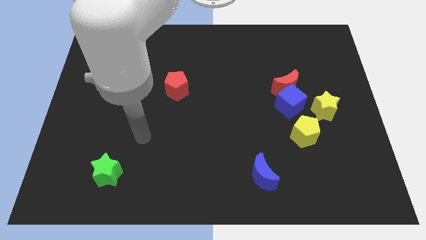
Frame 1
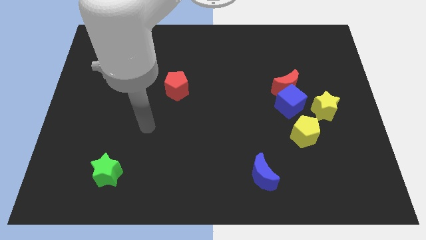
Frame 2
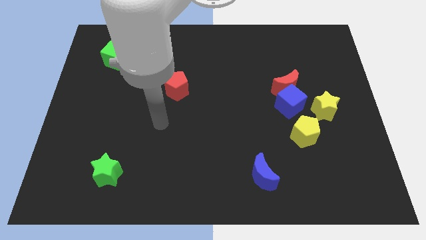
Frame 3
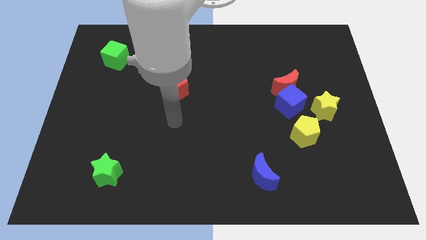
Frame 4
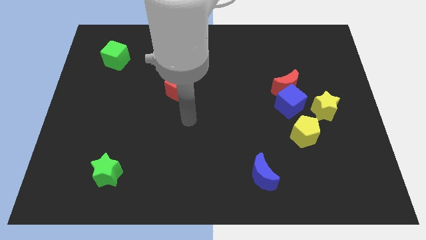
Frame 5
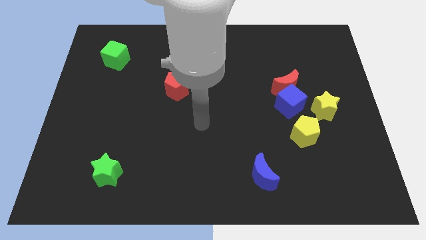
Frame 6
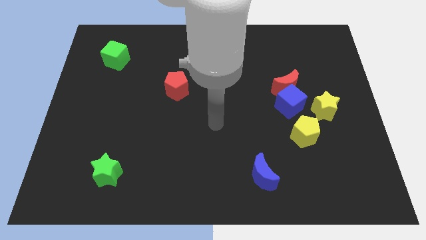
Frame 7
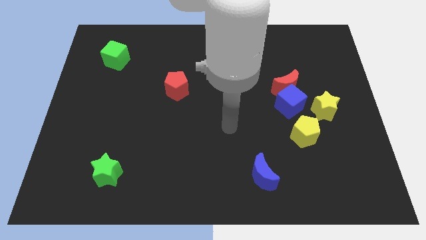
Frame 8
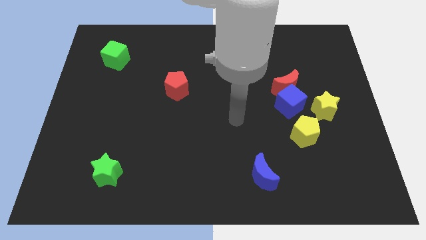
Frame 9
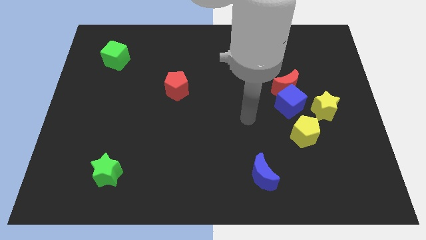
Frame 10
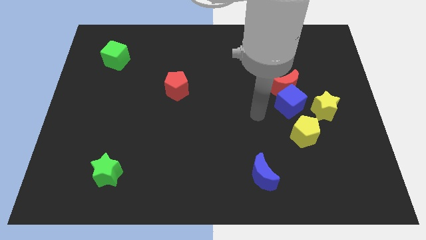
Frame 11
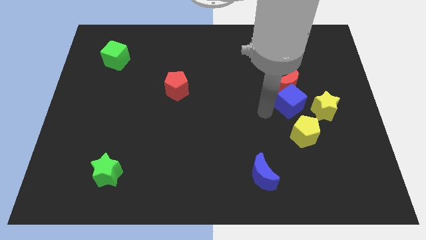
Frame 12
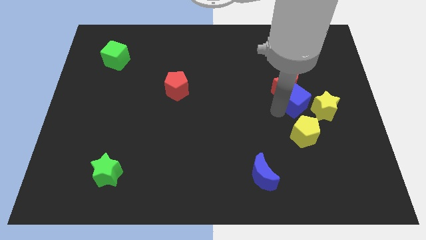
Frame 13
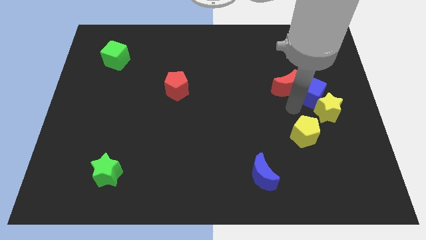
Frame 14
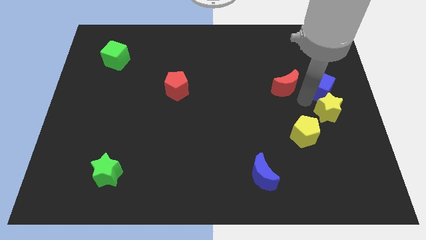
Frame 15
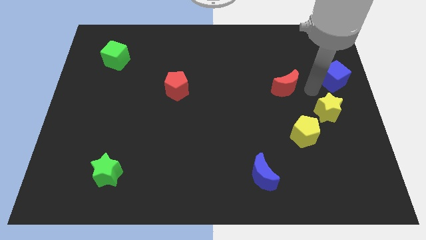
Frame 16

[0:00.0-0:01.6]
move the red moon away from the blue cube

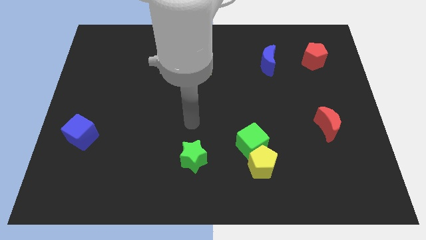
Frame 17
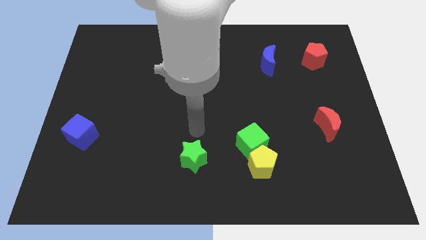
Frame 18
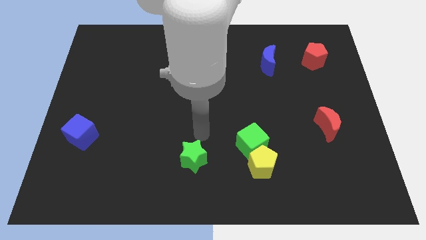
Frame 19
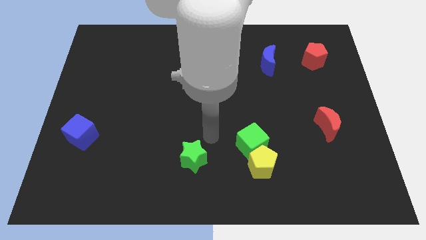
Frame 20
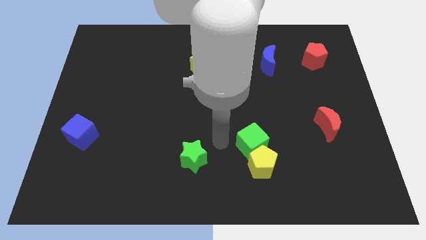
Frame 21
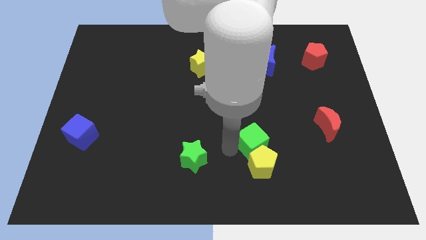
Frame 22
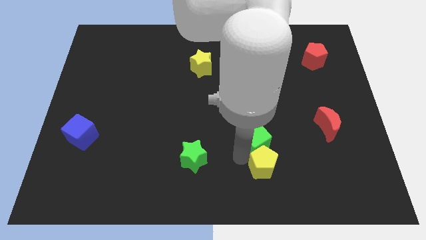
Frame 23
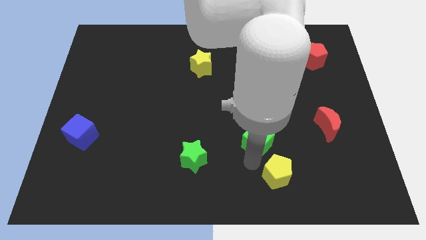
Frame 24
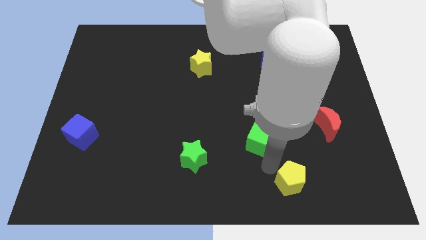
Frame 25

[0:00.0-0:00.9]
move the green cube away from the yellow pentagon

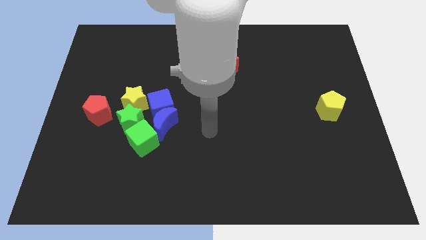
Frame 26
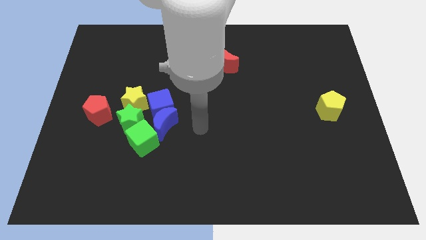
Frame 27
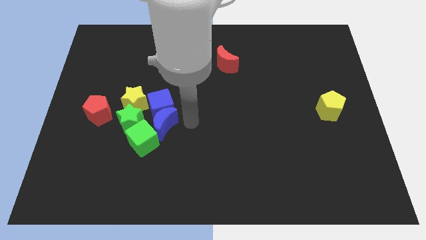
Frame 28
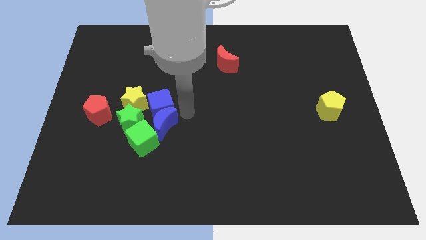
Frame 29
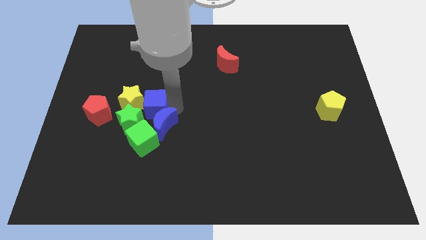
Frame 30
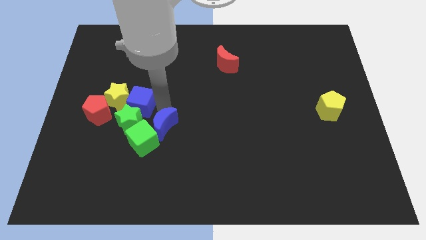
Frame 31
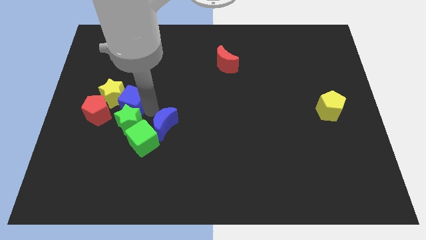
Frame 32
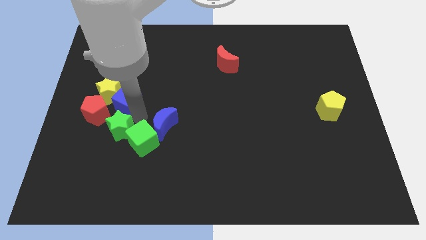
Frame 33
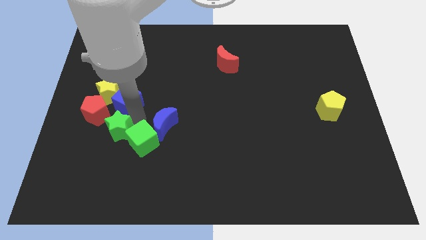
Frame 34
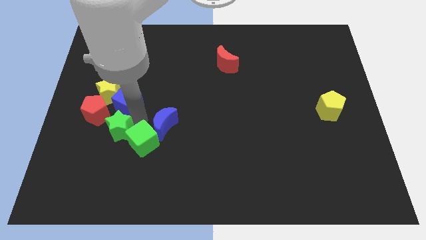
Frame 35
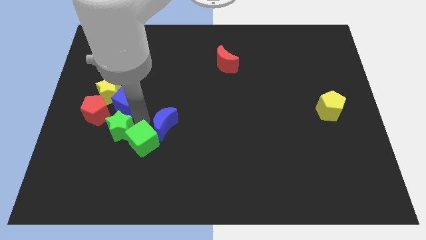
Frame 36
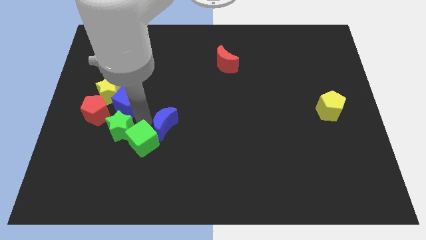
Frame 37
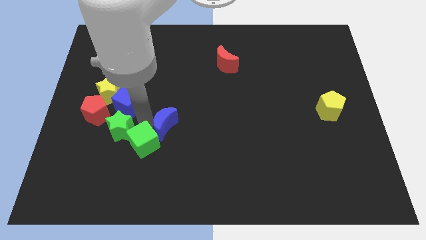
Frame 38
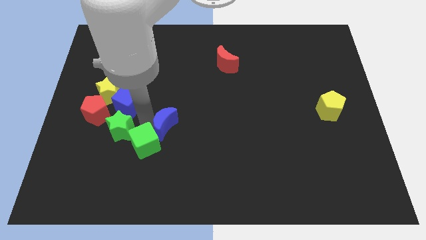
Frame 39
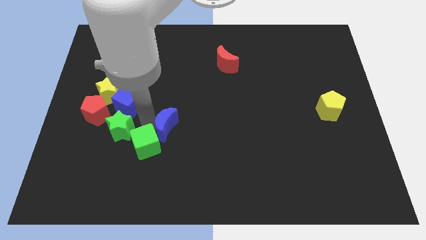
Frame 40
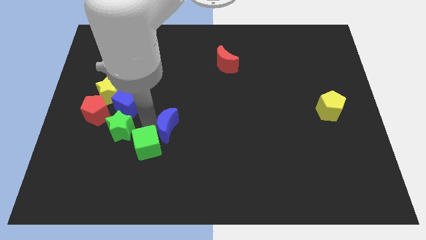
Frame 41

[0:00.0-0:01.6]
pull the blue moon apart from the group

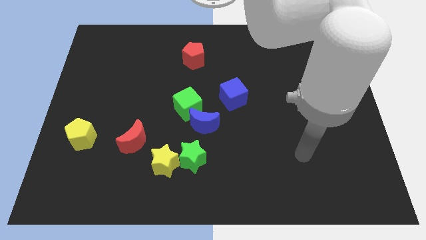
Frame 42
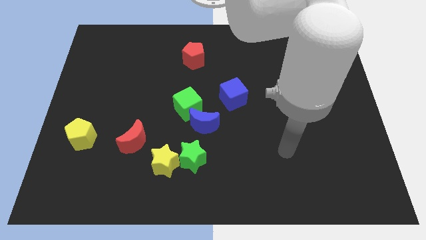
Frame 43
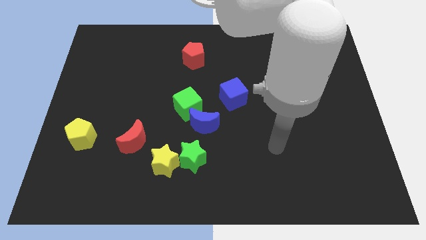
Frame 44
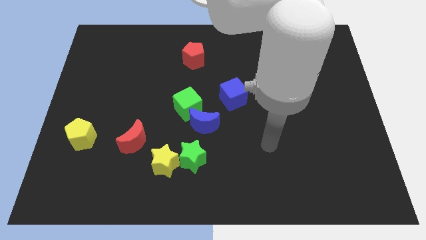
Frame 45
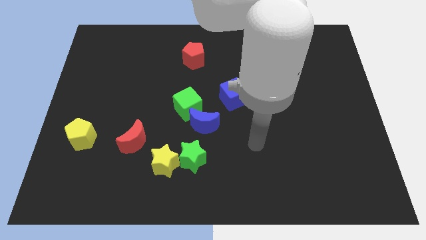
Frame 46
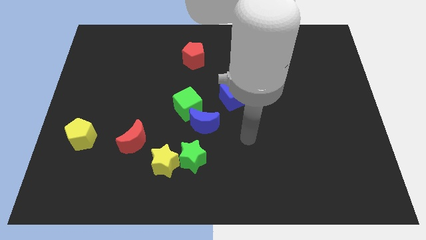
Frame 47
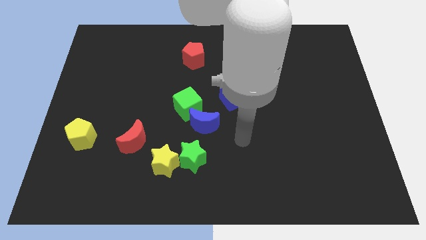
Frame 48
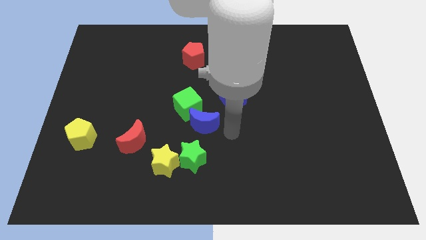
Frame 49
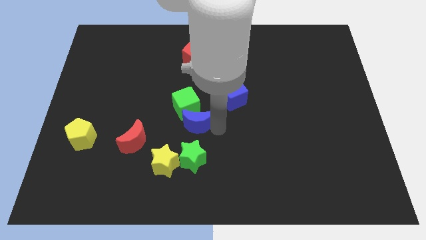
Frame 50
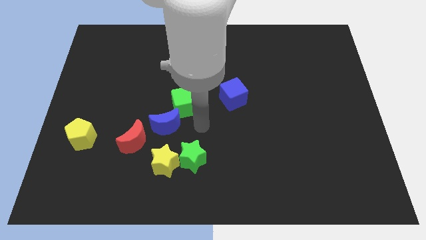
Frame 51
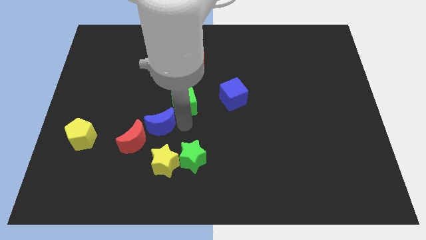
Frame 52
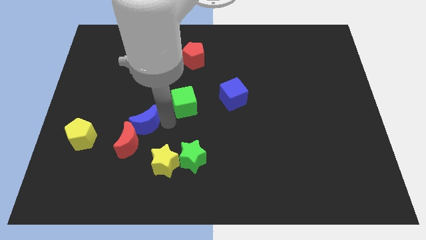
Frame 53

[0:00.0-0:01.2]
pull the green cube apart from the blue moon

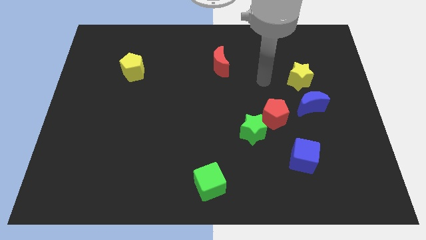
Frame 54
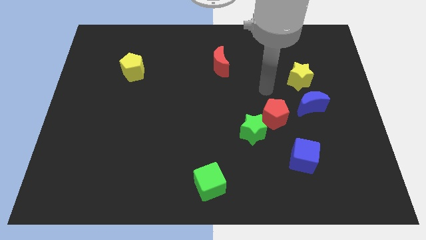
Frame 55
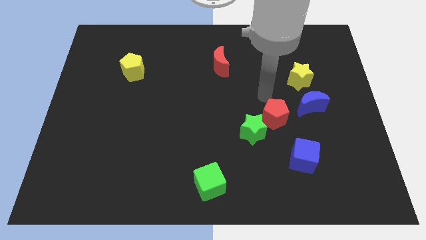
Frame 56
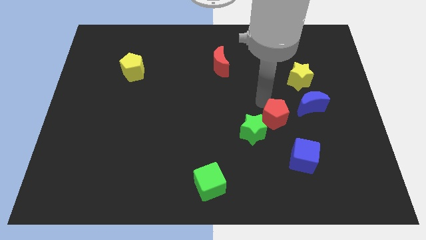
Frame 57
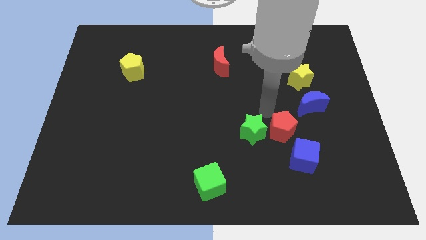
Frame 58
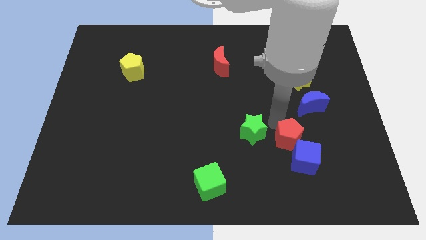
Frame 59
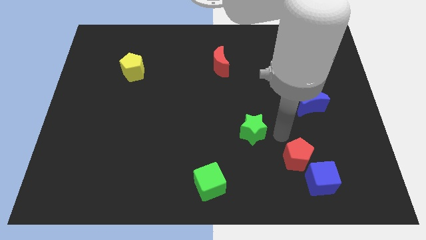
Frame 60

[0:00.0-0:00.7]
separate the green star from the red pentagon

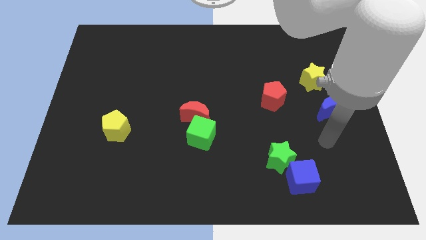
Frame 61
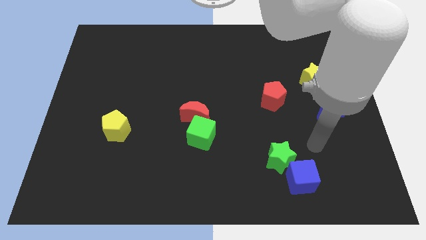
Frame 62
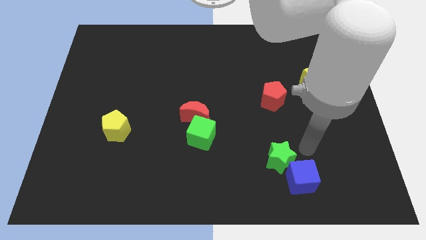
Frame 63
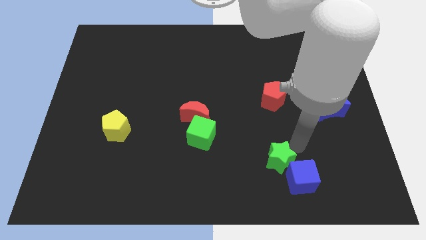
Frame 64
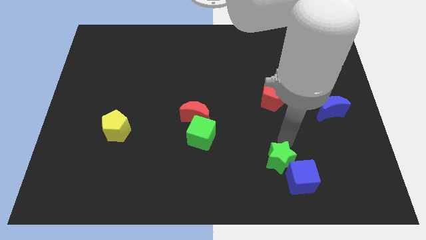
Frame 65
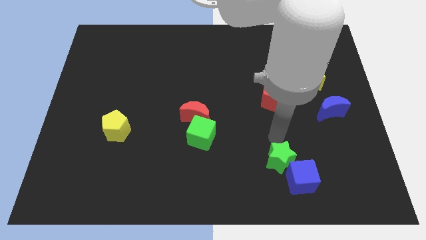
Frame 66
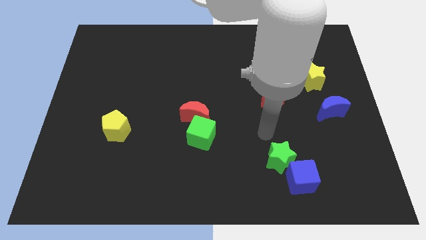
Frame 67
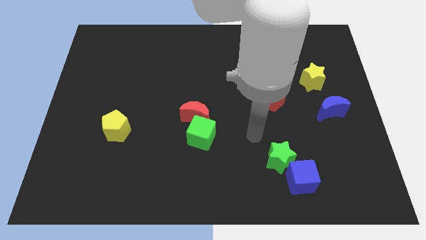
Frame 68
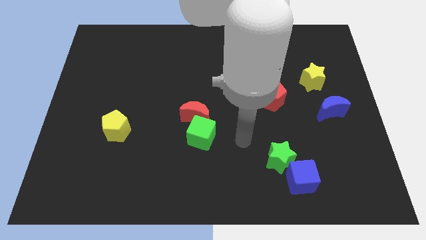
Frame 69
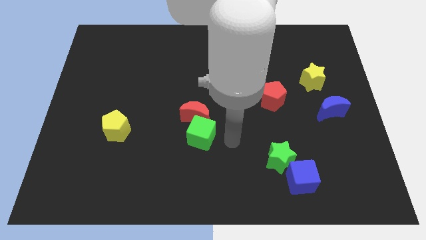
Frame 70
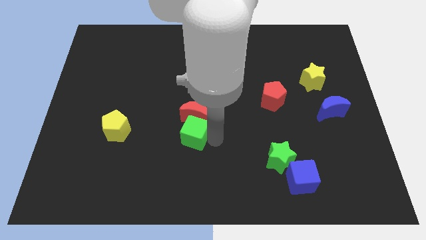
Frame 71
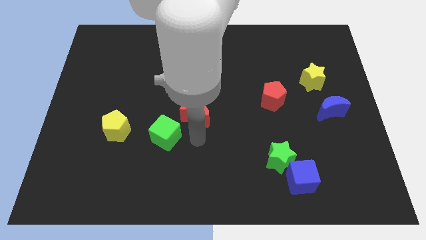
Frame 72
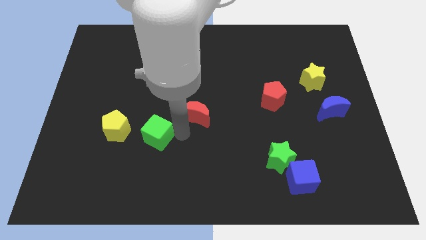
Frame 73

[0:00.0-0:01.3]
move the red moon away from the green cube

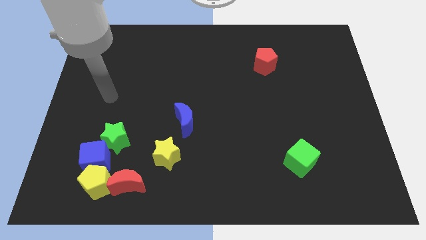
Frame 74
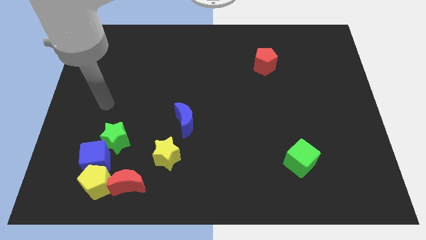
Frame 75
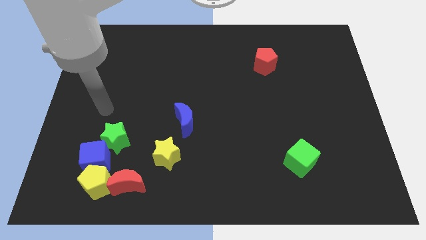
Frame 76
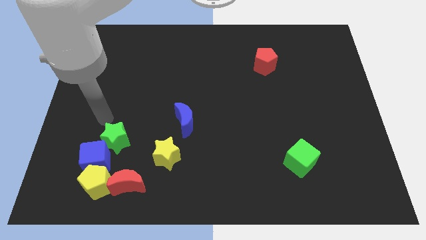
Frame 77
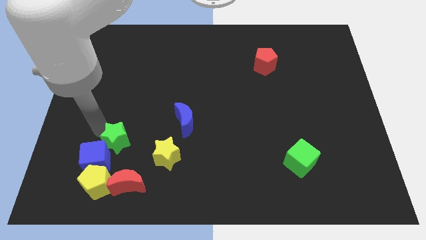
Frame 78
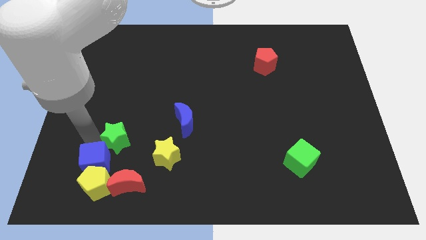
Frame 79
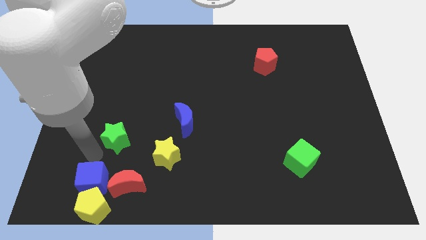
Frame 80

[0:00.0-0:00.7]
separate the green star from the blue cube

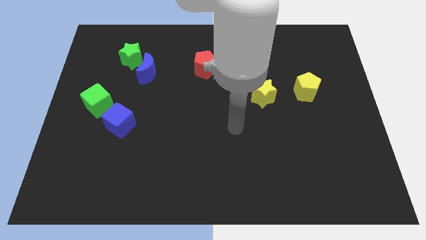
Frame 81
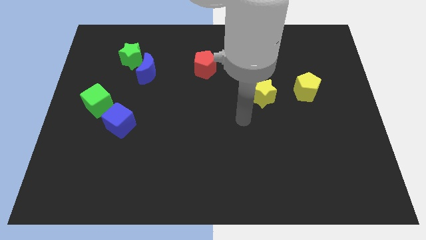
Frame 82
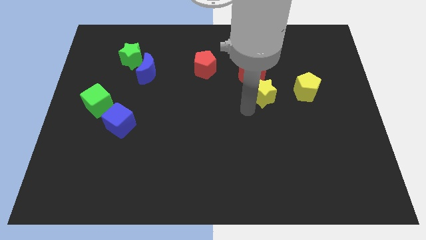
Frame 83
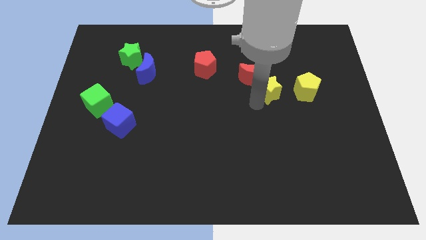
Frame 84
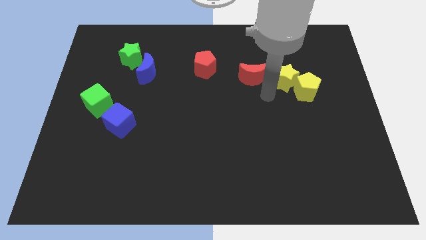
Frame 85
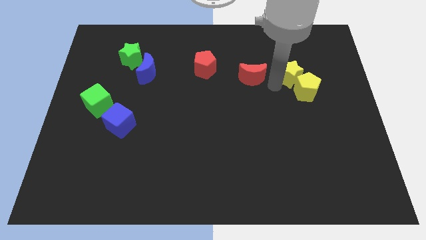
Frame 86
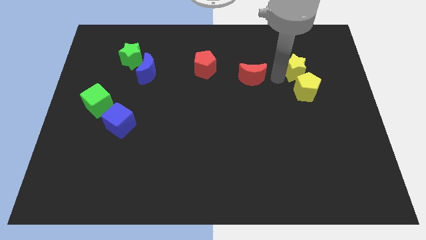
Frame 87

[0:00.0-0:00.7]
move the red moon away from the yellow star

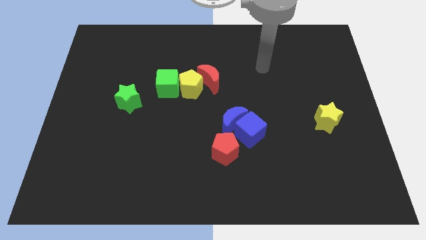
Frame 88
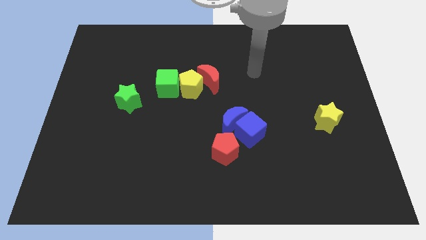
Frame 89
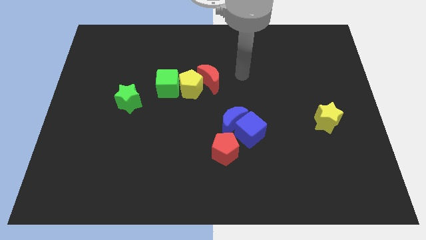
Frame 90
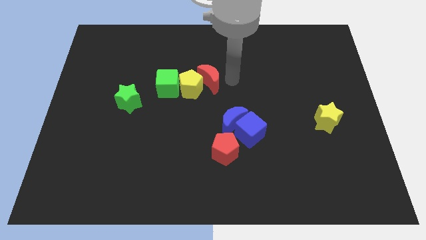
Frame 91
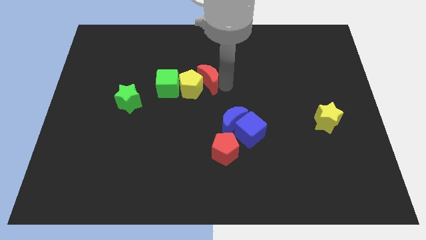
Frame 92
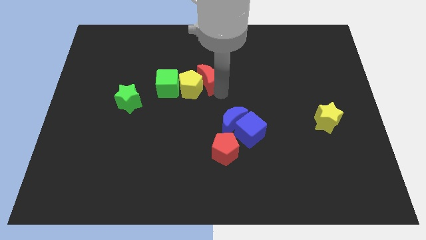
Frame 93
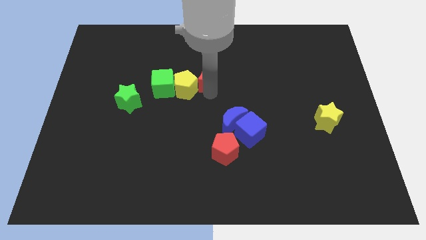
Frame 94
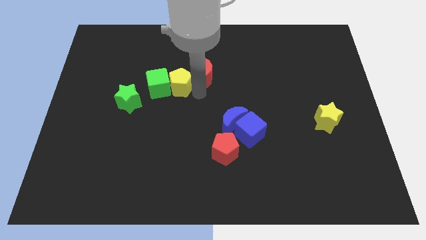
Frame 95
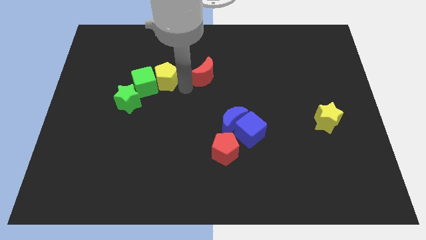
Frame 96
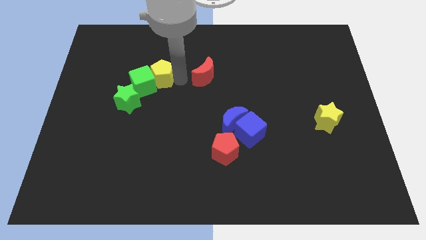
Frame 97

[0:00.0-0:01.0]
move the red moon away from the yellow pentagon
